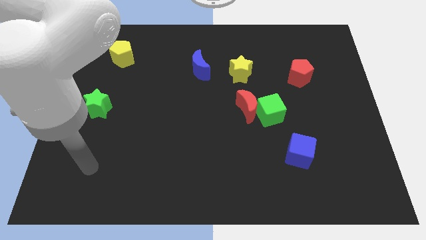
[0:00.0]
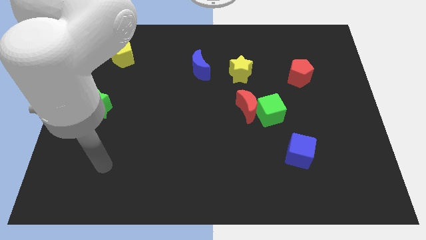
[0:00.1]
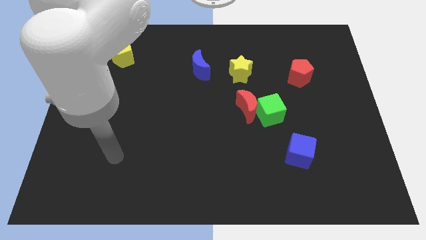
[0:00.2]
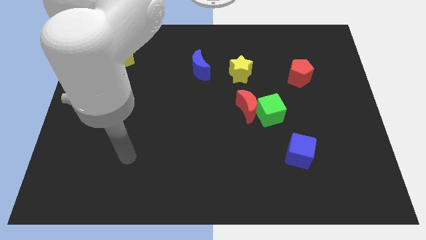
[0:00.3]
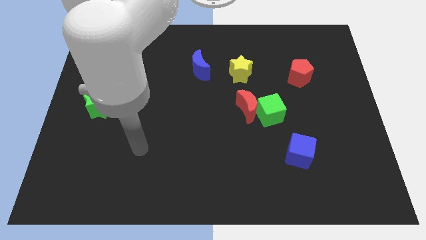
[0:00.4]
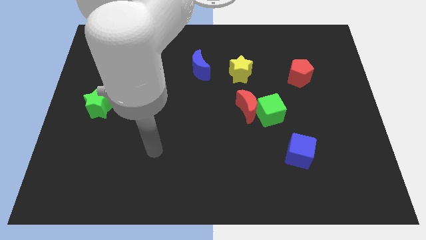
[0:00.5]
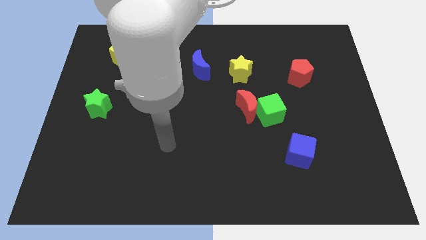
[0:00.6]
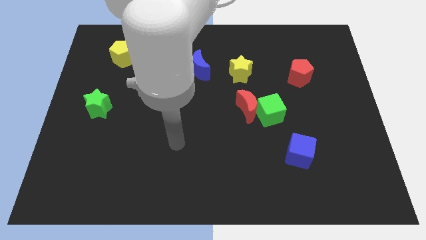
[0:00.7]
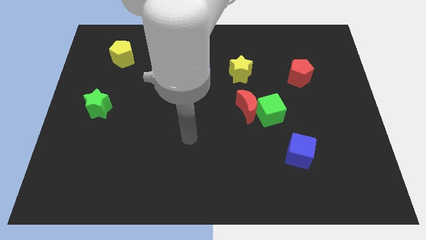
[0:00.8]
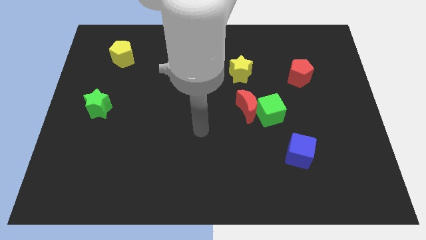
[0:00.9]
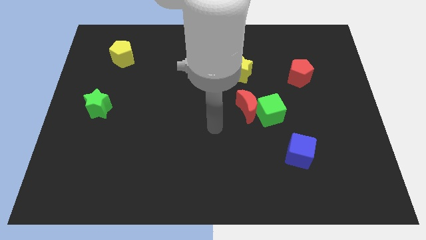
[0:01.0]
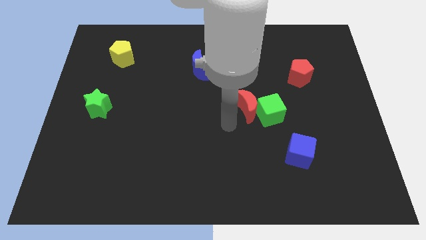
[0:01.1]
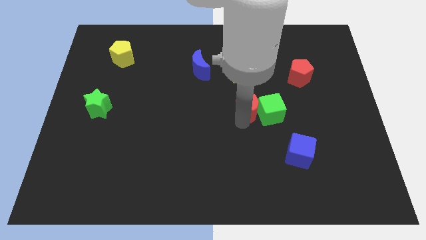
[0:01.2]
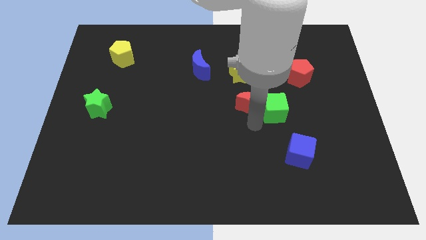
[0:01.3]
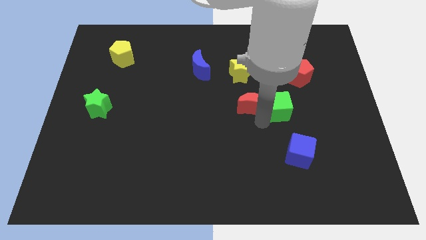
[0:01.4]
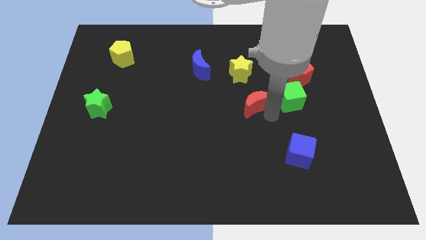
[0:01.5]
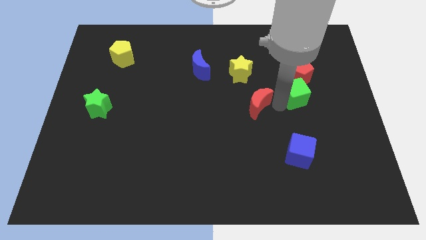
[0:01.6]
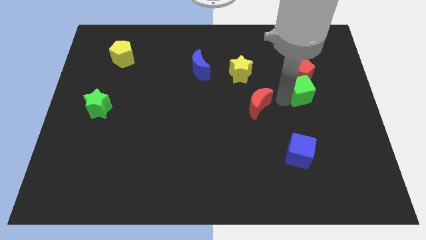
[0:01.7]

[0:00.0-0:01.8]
move the red moon away from the green cube

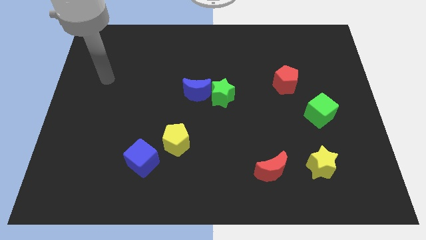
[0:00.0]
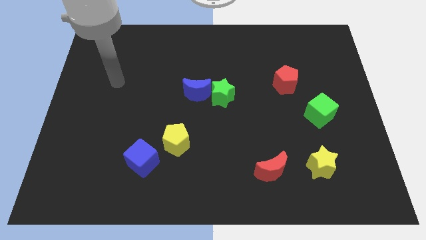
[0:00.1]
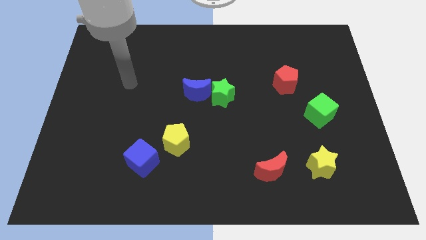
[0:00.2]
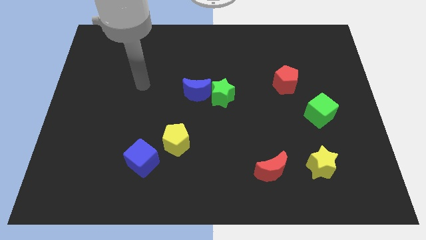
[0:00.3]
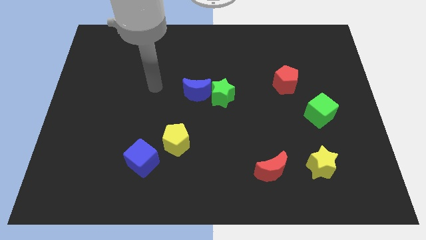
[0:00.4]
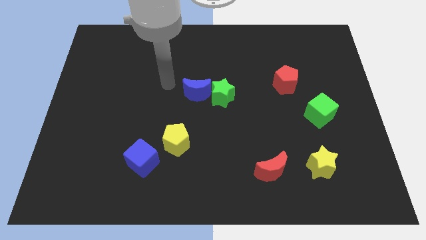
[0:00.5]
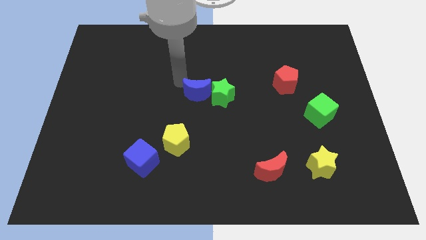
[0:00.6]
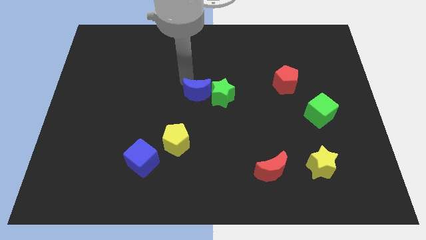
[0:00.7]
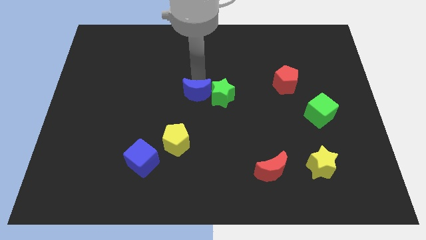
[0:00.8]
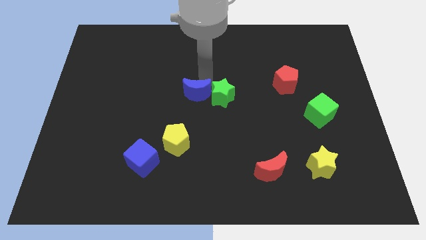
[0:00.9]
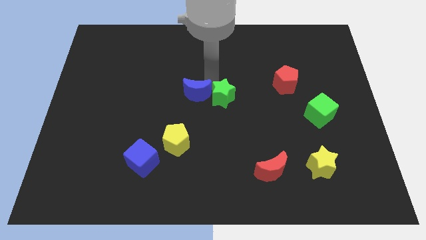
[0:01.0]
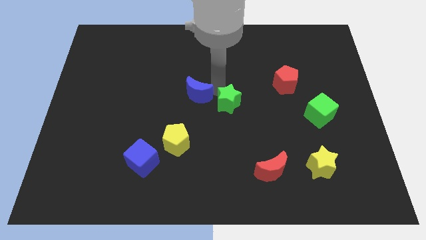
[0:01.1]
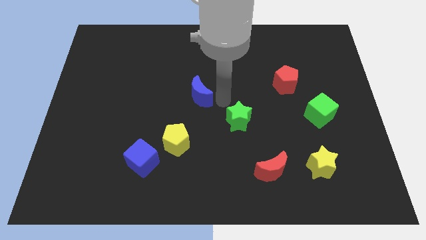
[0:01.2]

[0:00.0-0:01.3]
pull the blue moon apart from the green star

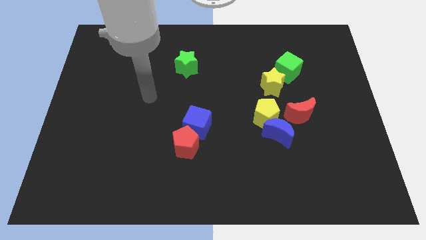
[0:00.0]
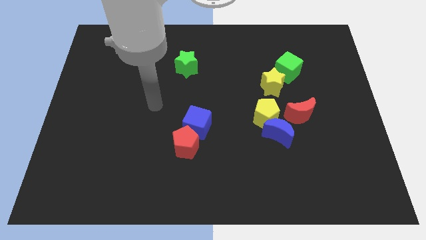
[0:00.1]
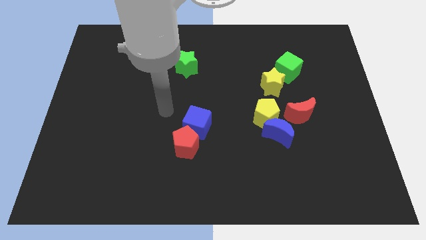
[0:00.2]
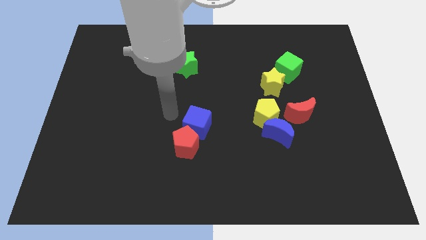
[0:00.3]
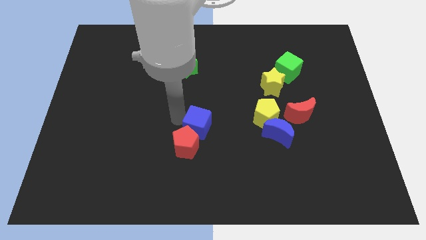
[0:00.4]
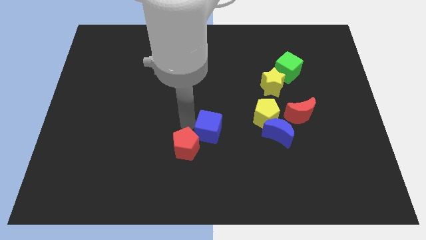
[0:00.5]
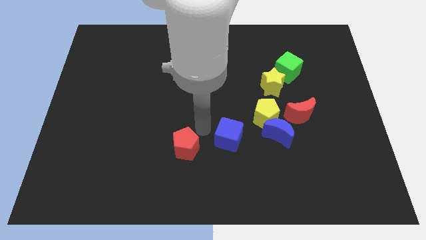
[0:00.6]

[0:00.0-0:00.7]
pull the red pentagon apart from the blue cube

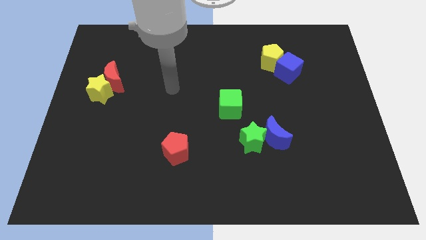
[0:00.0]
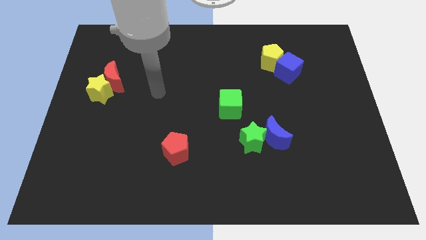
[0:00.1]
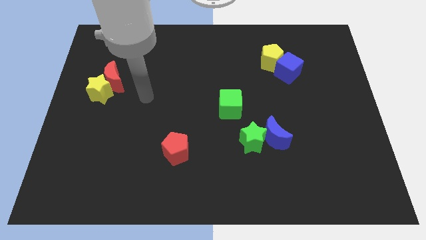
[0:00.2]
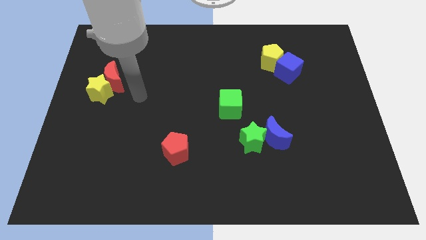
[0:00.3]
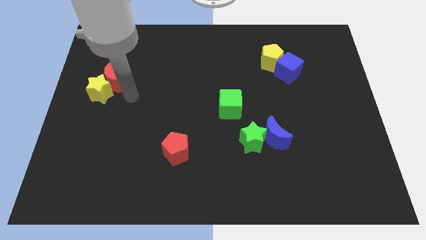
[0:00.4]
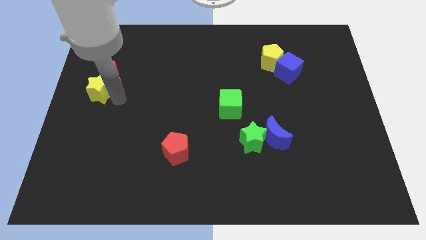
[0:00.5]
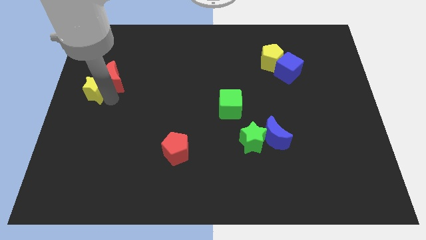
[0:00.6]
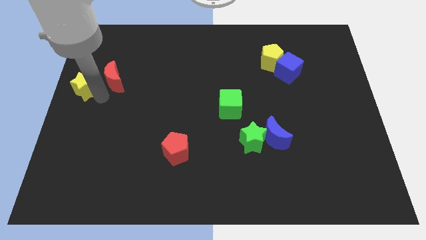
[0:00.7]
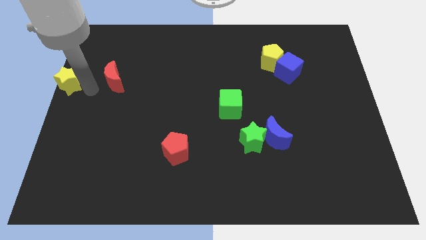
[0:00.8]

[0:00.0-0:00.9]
separate the red moon from the yellow star

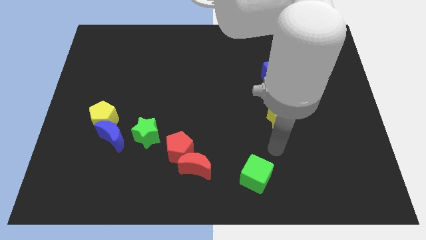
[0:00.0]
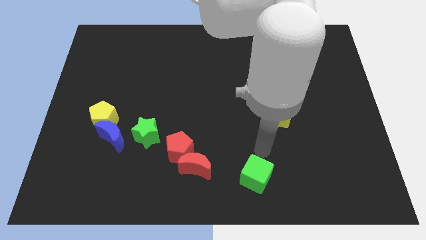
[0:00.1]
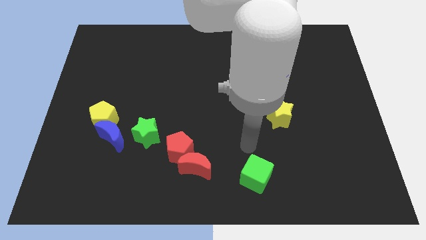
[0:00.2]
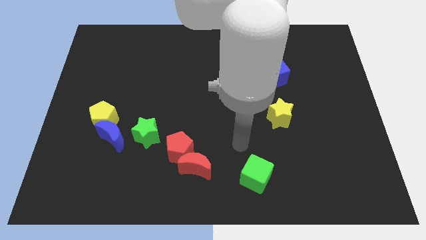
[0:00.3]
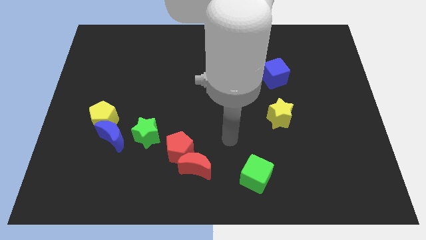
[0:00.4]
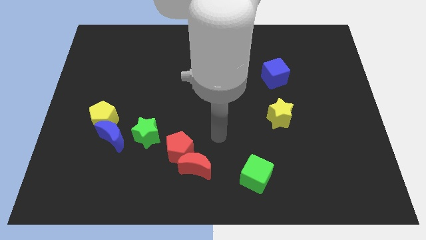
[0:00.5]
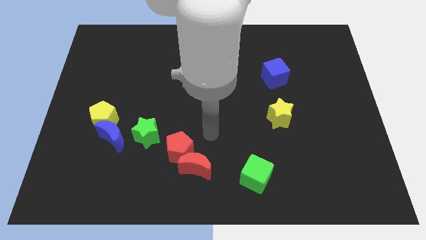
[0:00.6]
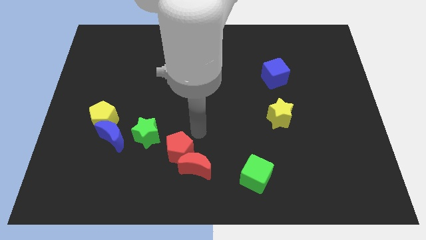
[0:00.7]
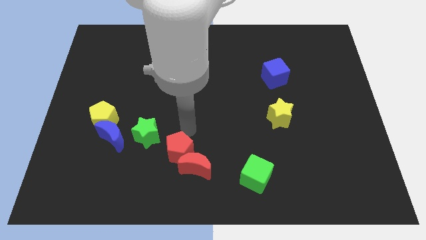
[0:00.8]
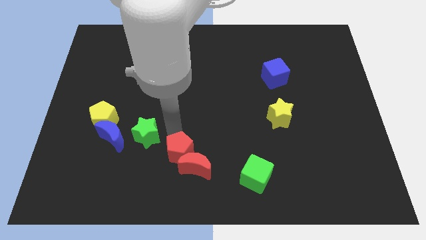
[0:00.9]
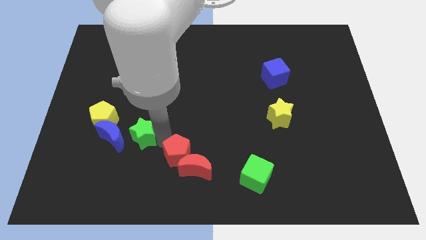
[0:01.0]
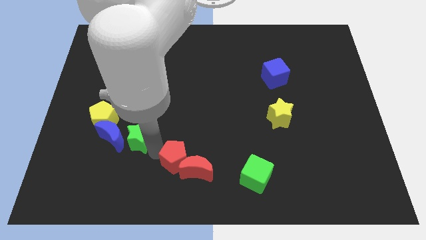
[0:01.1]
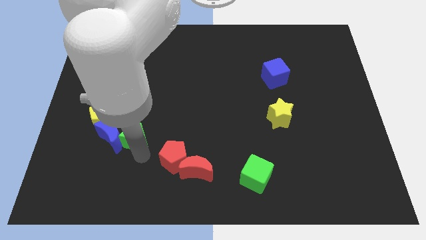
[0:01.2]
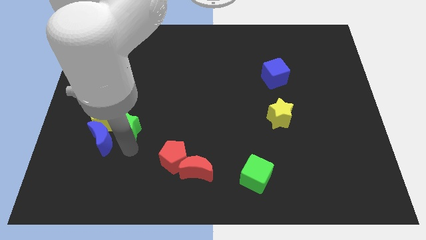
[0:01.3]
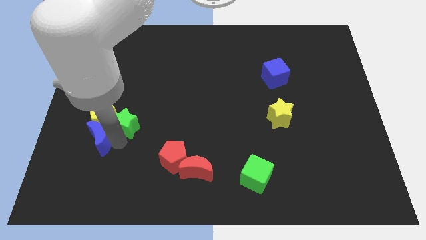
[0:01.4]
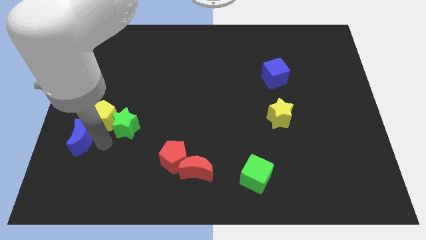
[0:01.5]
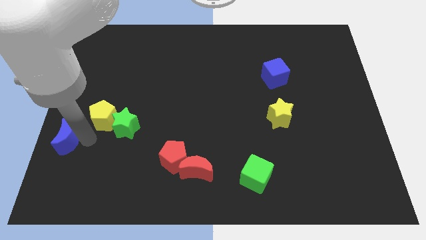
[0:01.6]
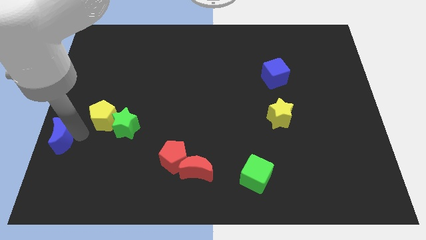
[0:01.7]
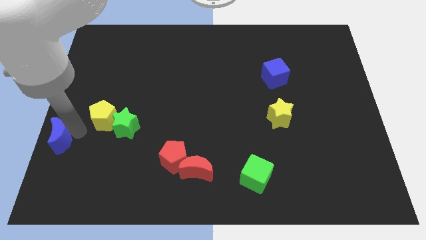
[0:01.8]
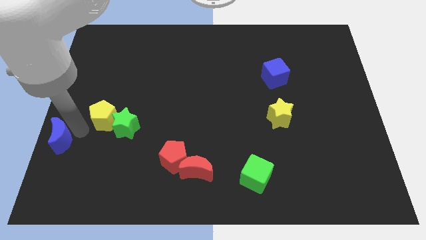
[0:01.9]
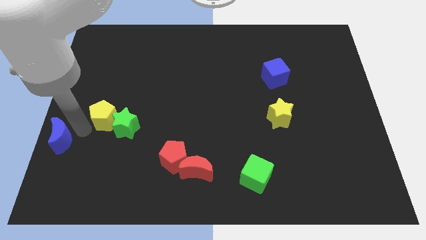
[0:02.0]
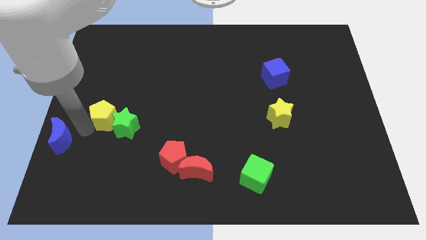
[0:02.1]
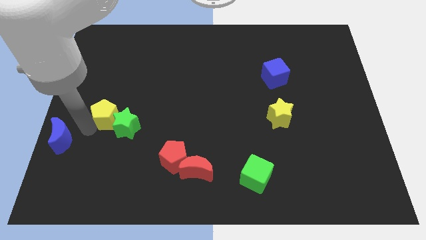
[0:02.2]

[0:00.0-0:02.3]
separate the yellow pentagon from the blue moon

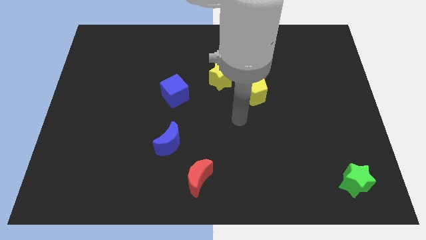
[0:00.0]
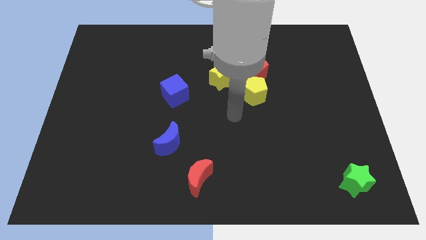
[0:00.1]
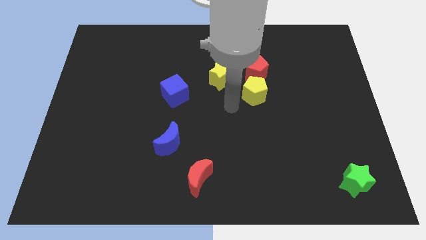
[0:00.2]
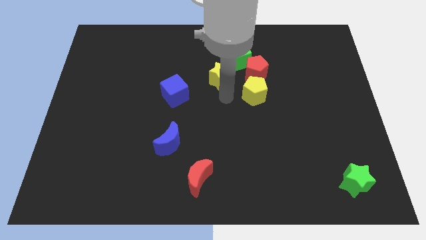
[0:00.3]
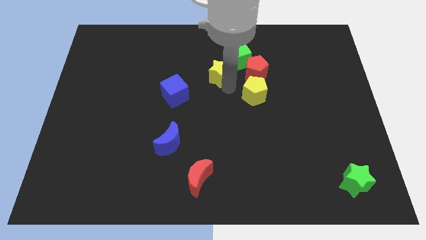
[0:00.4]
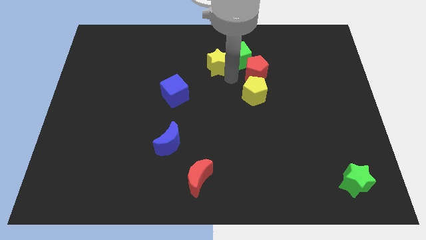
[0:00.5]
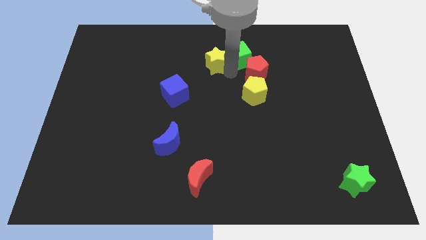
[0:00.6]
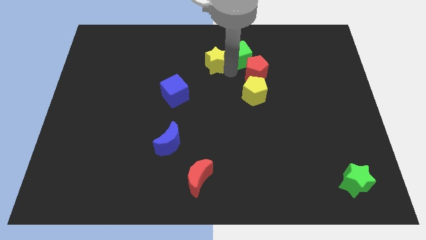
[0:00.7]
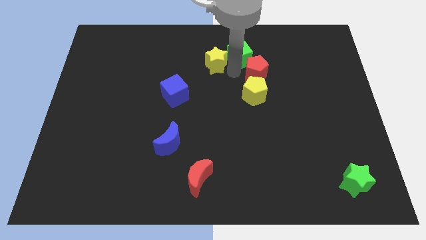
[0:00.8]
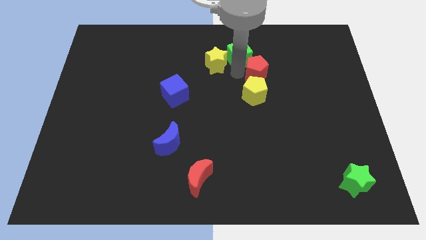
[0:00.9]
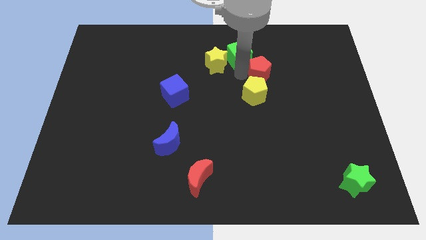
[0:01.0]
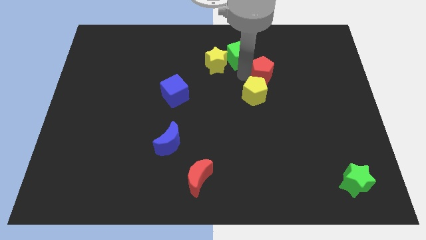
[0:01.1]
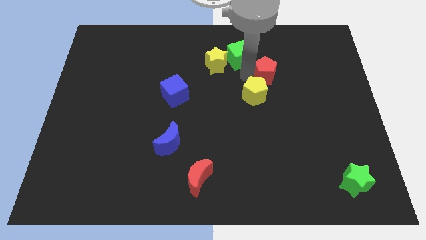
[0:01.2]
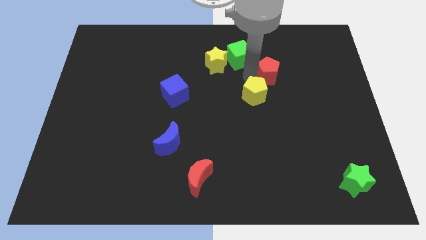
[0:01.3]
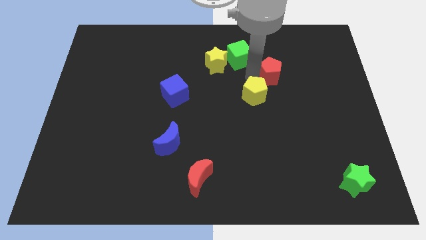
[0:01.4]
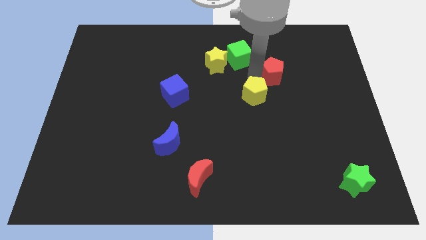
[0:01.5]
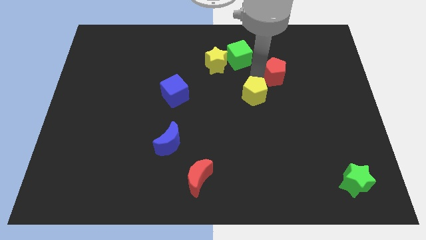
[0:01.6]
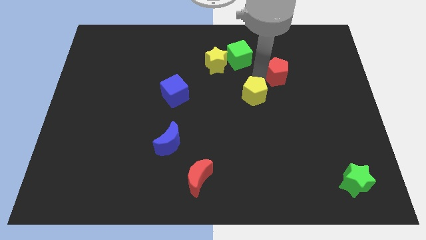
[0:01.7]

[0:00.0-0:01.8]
move the red pentagon away from the group of blocks

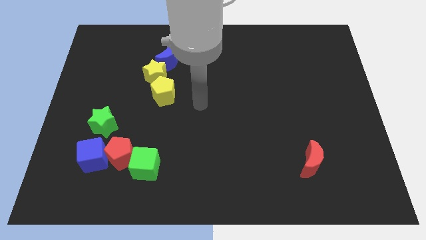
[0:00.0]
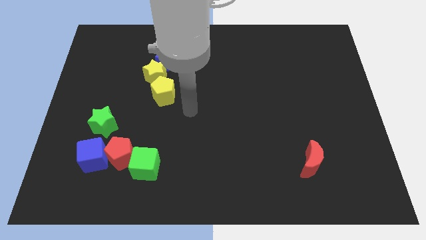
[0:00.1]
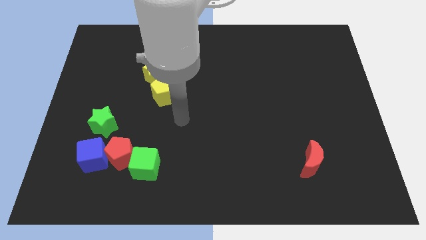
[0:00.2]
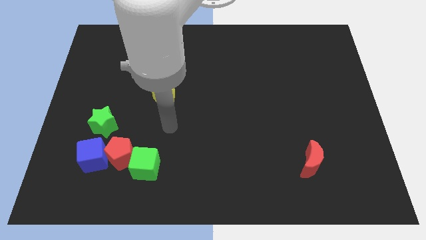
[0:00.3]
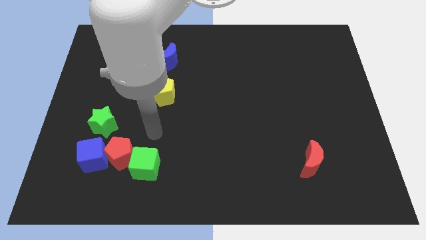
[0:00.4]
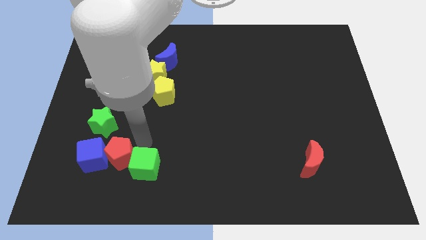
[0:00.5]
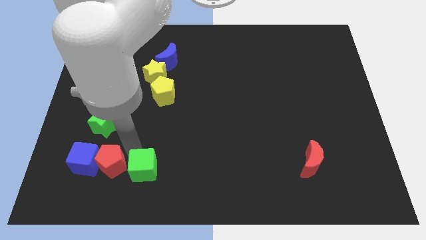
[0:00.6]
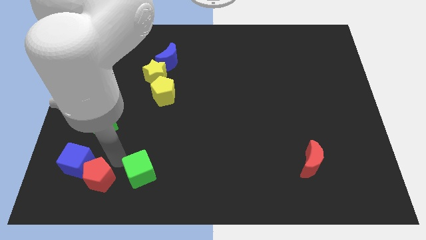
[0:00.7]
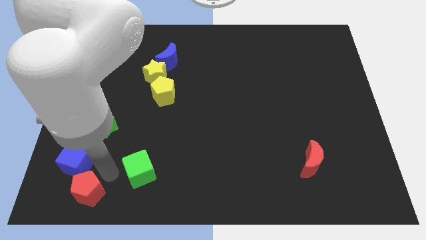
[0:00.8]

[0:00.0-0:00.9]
pull the green cube apart from the red pentagon
